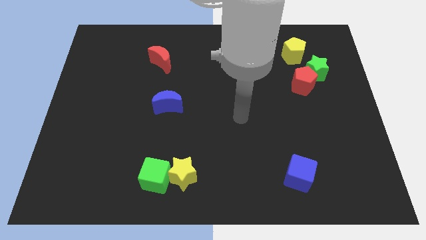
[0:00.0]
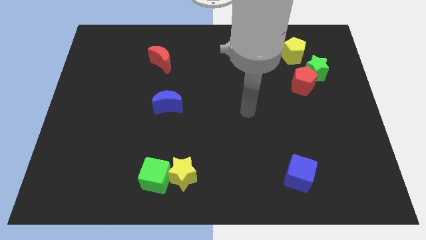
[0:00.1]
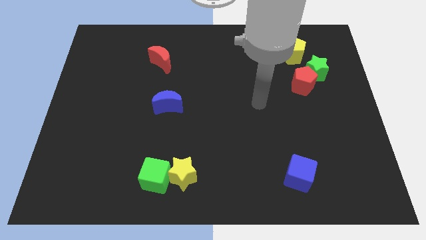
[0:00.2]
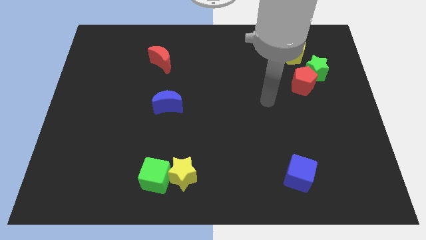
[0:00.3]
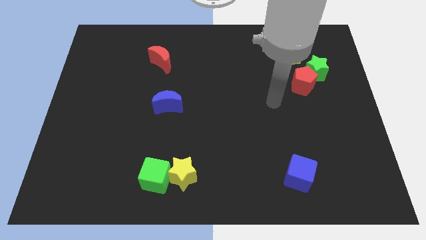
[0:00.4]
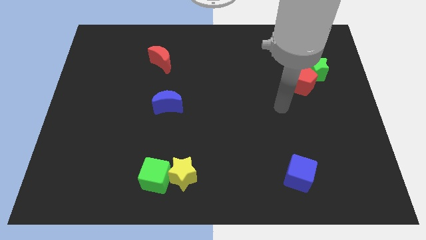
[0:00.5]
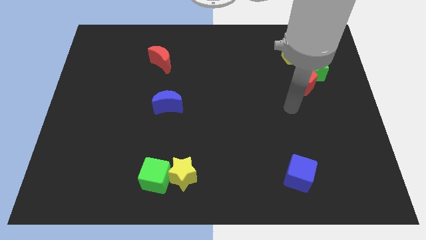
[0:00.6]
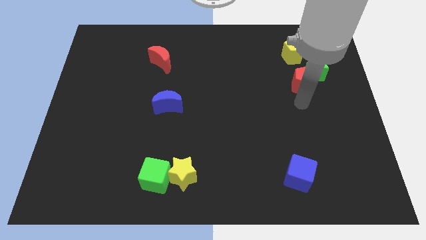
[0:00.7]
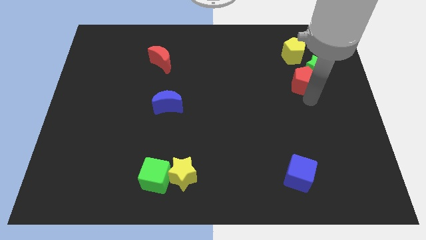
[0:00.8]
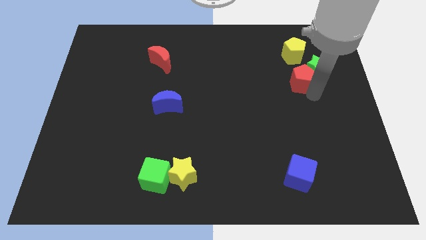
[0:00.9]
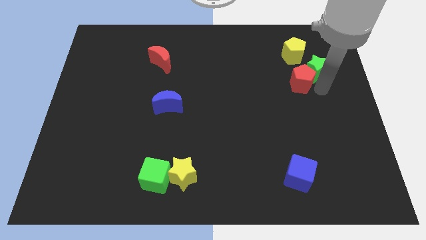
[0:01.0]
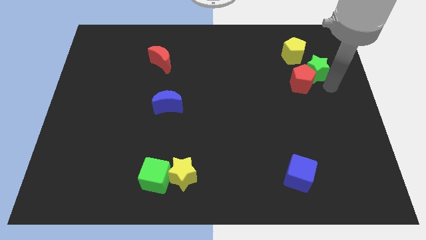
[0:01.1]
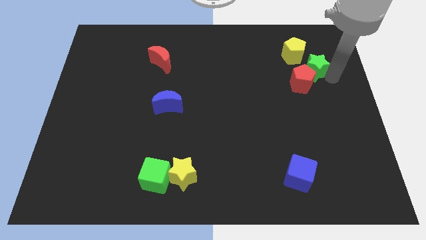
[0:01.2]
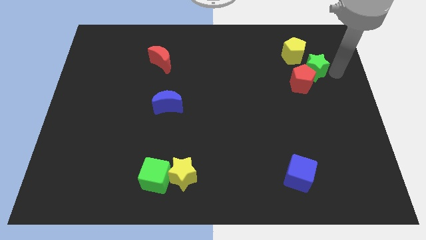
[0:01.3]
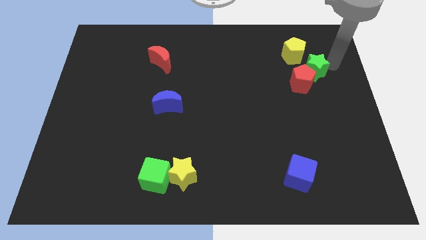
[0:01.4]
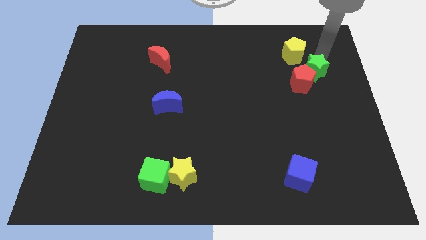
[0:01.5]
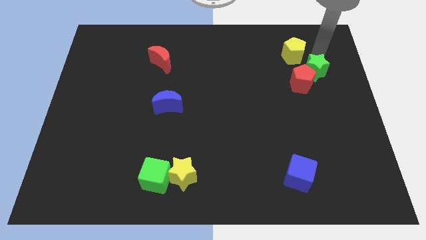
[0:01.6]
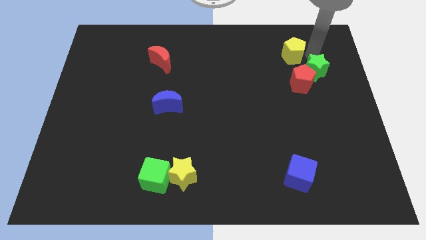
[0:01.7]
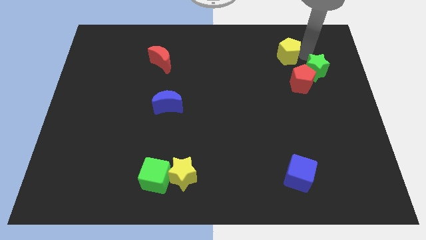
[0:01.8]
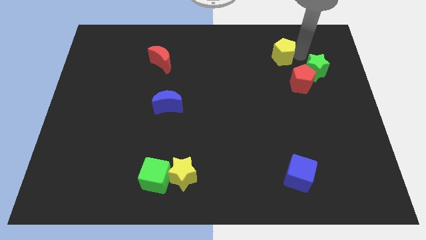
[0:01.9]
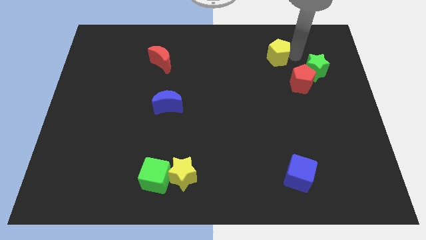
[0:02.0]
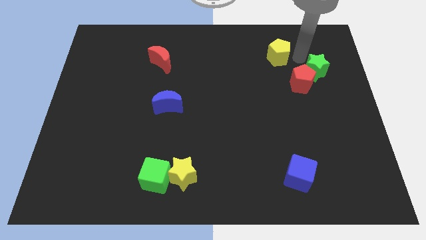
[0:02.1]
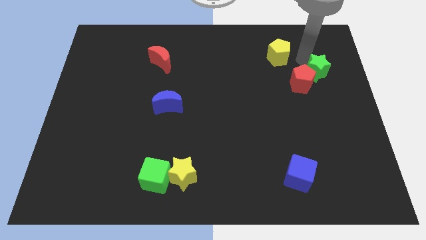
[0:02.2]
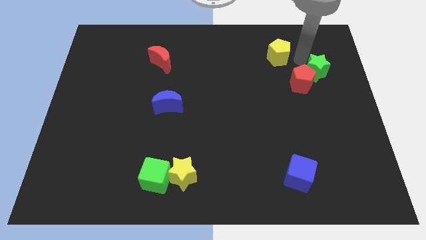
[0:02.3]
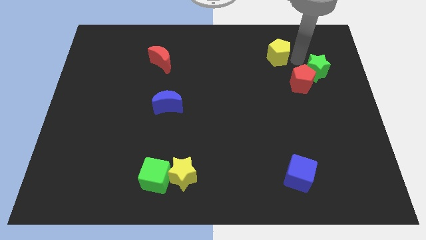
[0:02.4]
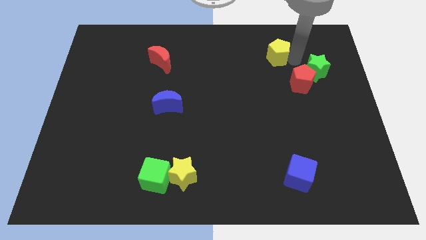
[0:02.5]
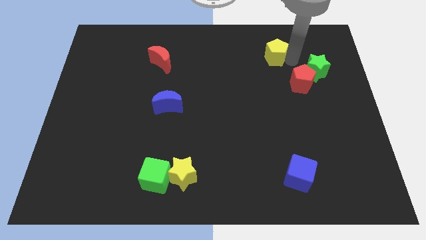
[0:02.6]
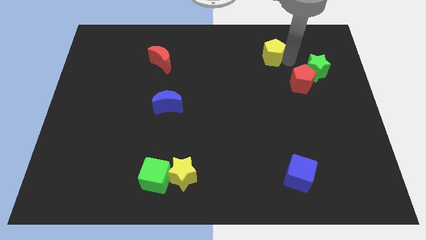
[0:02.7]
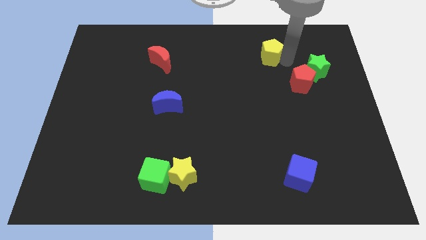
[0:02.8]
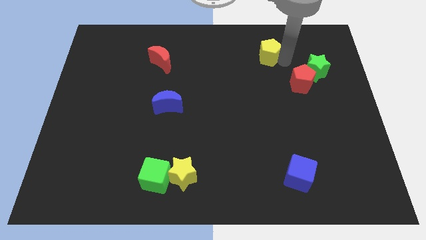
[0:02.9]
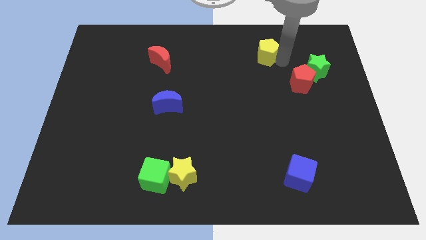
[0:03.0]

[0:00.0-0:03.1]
slide the yellow pentagon left a little

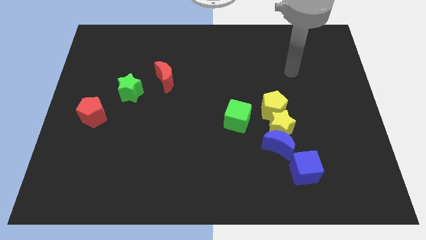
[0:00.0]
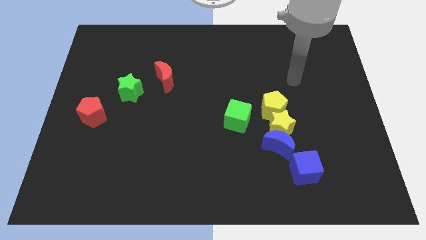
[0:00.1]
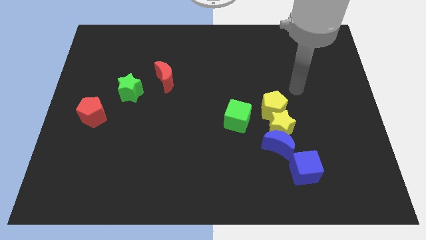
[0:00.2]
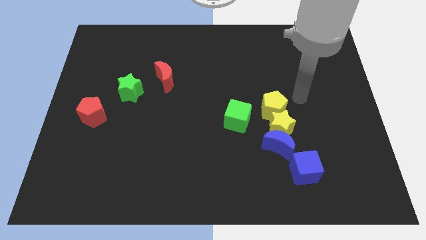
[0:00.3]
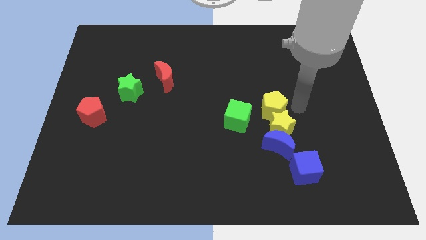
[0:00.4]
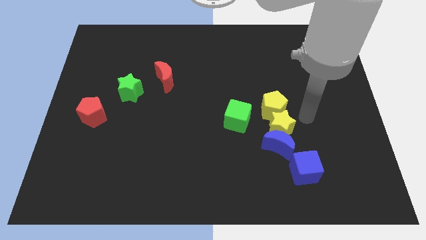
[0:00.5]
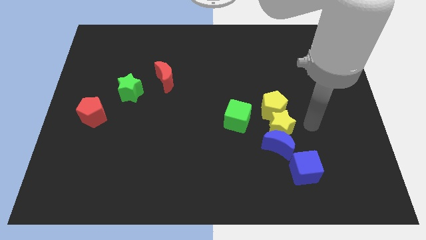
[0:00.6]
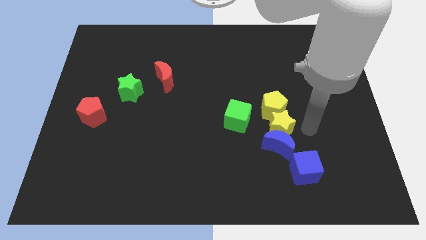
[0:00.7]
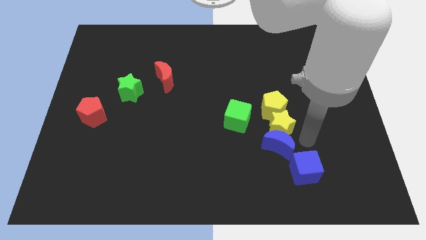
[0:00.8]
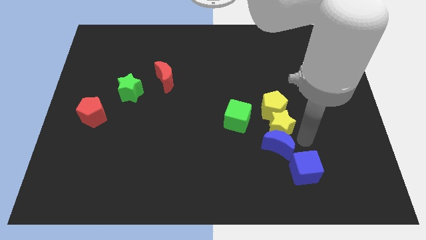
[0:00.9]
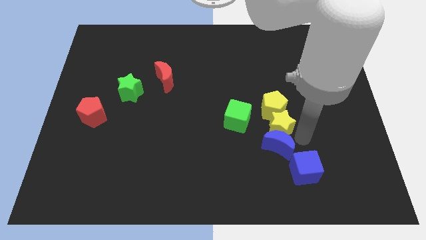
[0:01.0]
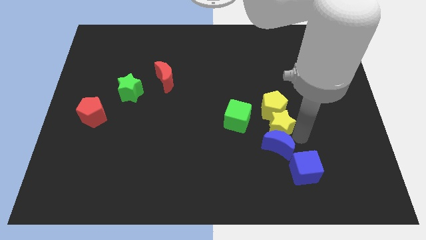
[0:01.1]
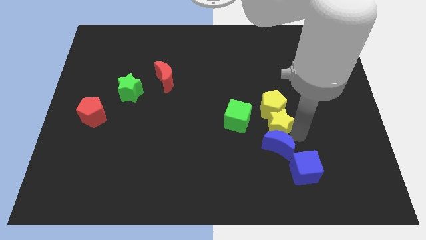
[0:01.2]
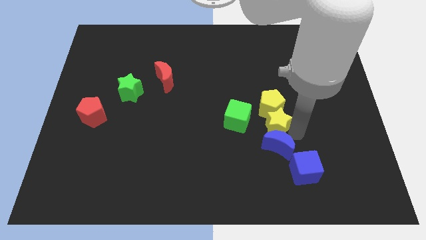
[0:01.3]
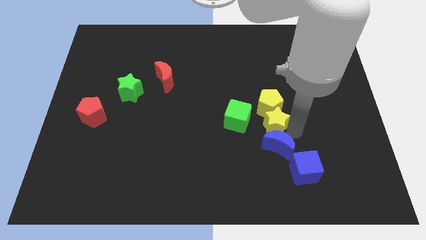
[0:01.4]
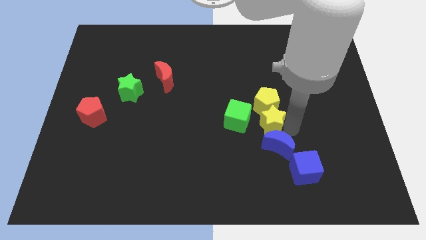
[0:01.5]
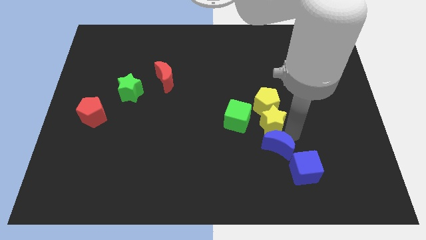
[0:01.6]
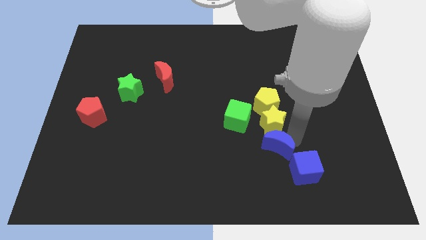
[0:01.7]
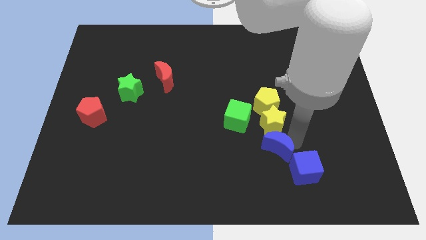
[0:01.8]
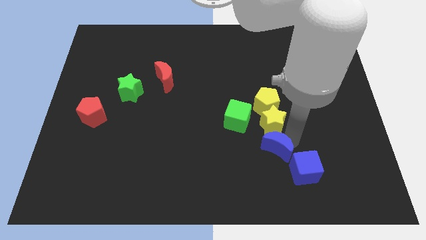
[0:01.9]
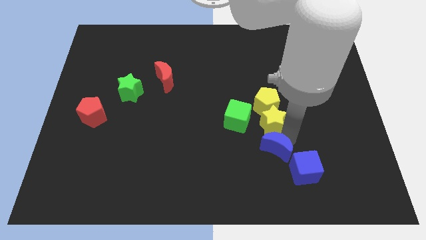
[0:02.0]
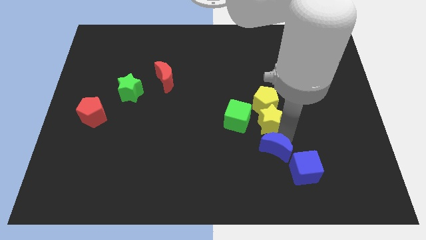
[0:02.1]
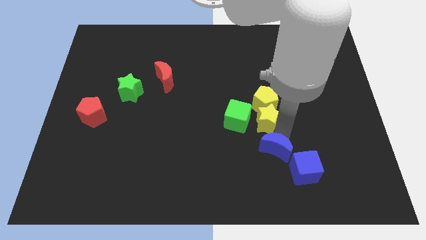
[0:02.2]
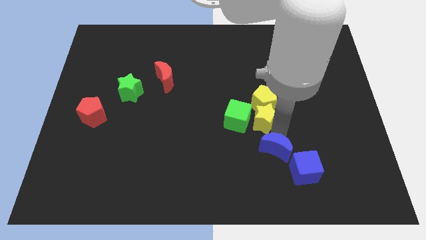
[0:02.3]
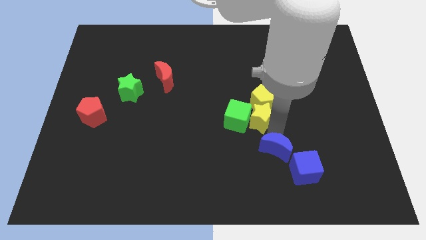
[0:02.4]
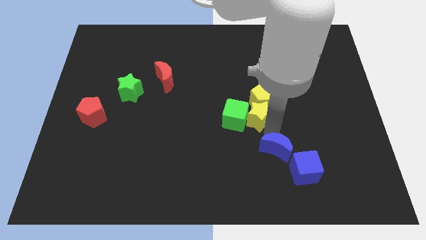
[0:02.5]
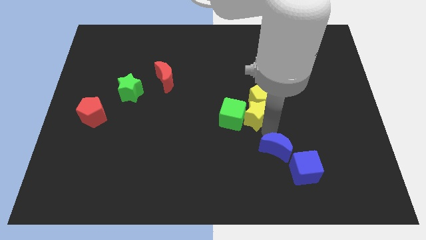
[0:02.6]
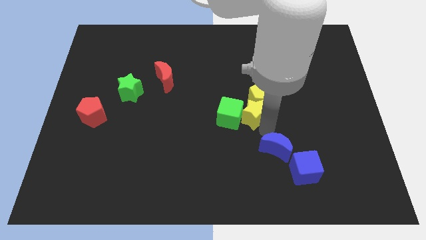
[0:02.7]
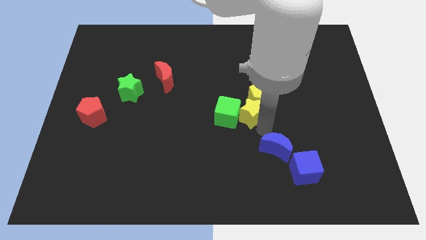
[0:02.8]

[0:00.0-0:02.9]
move the yellow star up and left diagonally somewhat

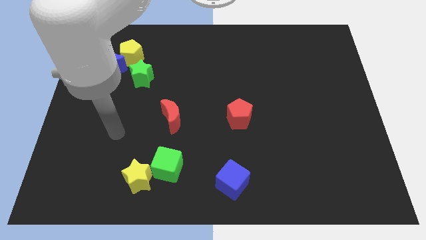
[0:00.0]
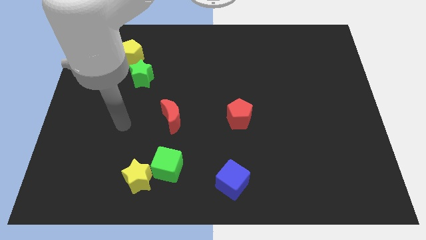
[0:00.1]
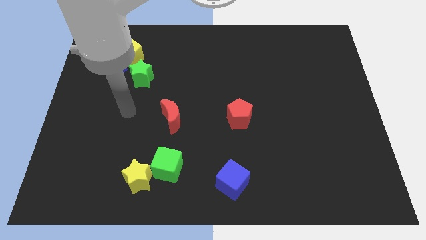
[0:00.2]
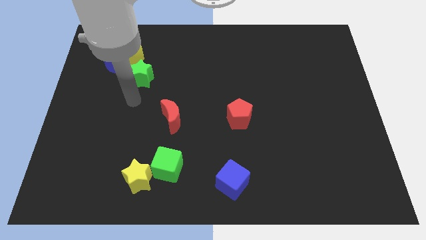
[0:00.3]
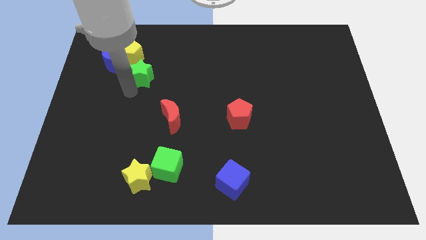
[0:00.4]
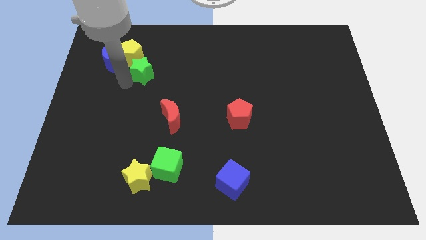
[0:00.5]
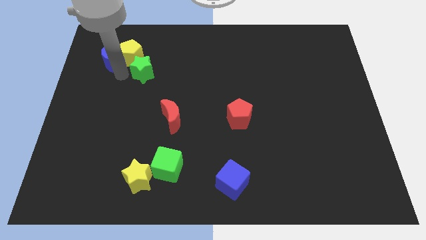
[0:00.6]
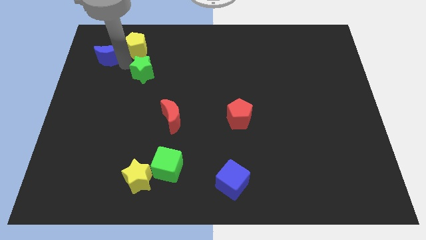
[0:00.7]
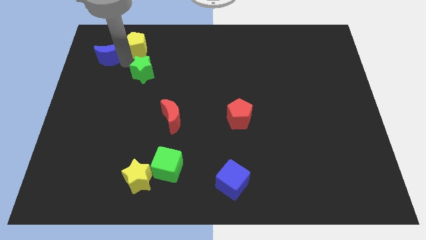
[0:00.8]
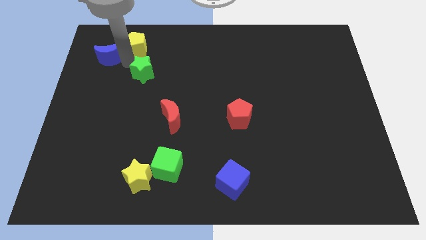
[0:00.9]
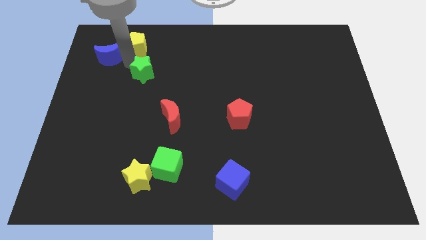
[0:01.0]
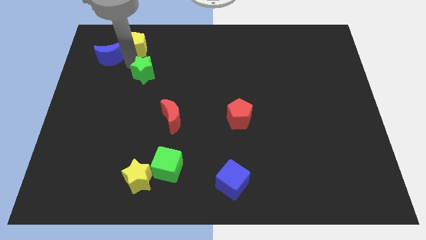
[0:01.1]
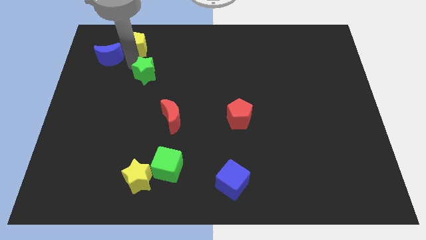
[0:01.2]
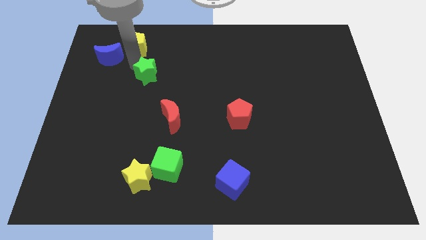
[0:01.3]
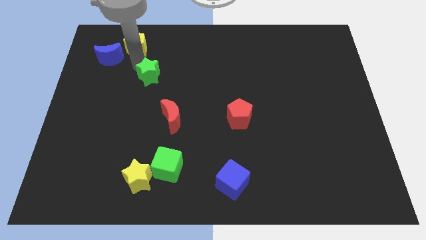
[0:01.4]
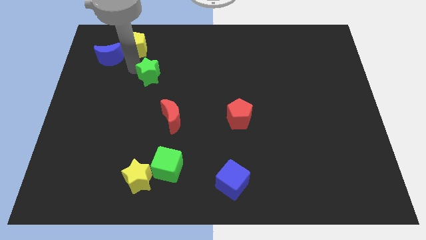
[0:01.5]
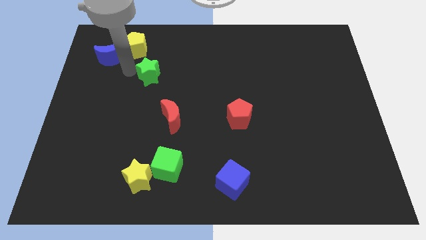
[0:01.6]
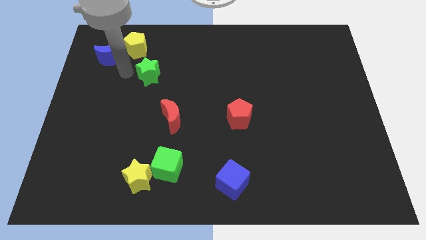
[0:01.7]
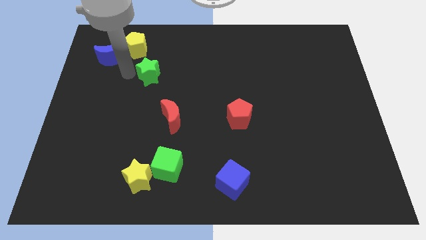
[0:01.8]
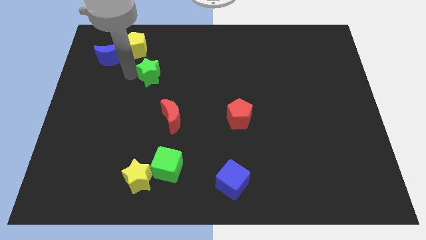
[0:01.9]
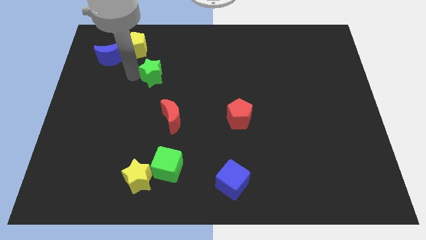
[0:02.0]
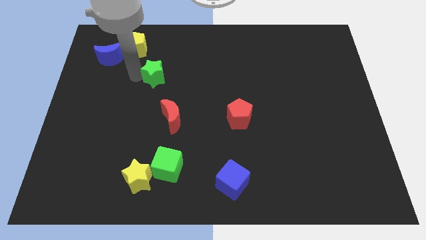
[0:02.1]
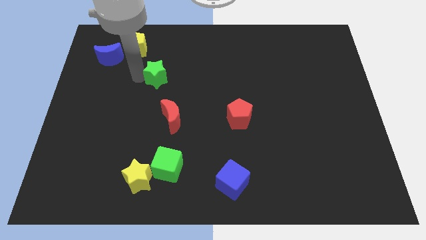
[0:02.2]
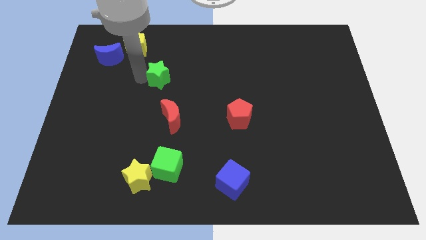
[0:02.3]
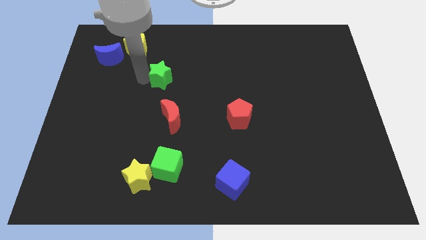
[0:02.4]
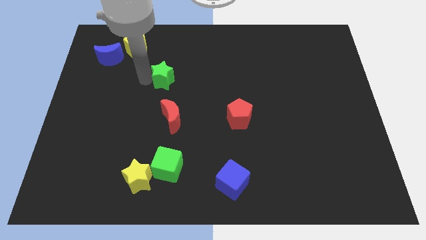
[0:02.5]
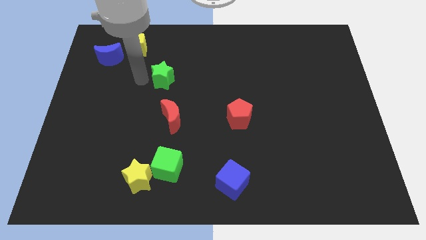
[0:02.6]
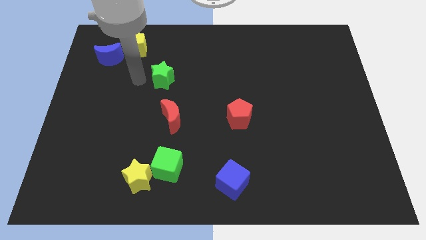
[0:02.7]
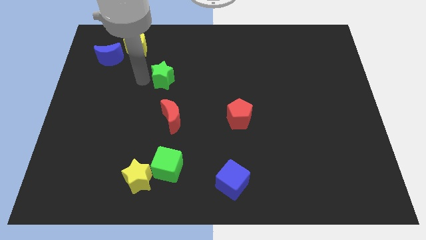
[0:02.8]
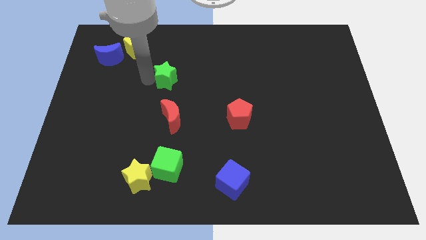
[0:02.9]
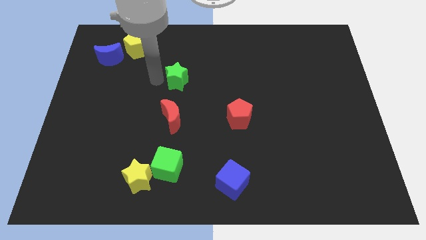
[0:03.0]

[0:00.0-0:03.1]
slightly slide the green star to the right
